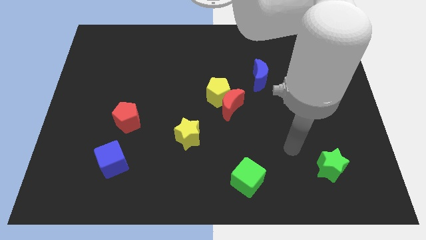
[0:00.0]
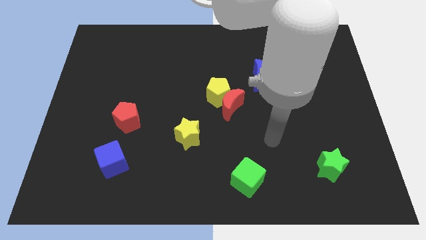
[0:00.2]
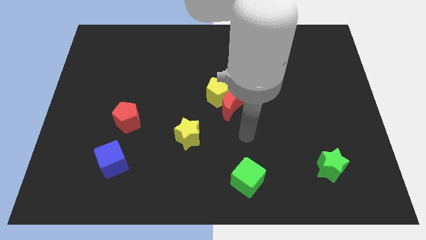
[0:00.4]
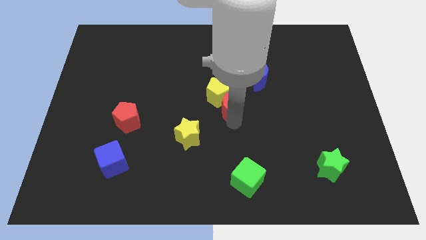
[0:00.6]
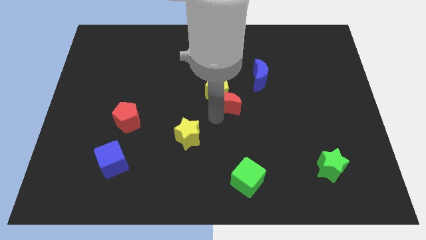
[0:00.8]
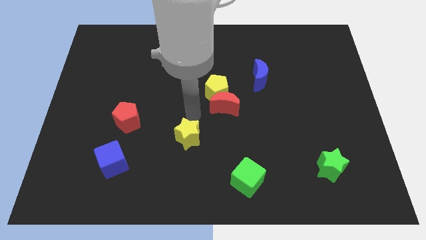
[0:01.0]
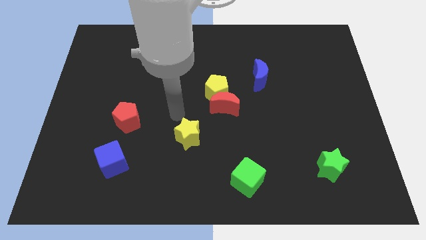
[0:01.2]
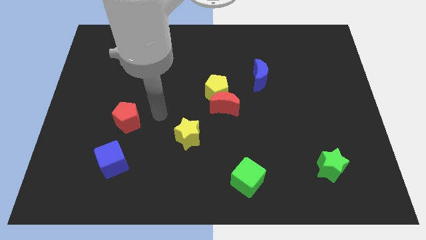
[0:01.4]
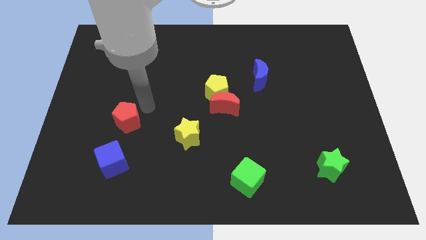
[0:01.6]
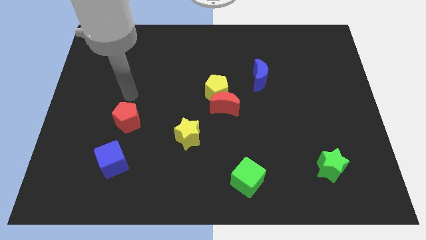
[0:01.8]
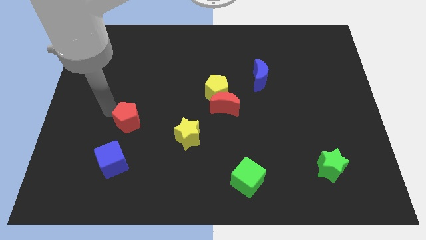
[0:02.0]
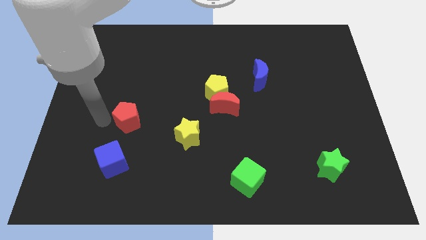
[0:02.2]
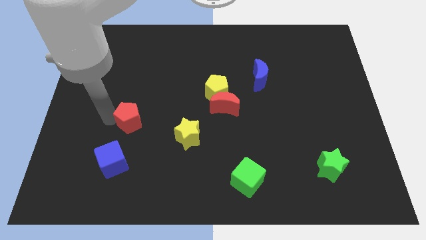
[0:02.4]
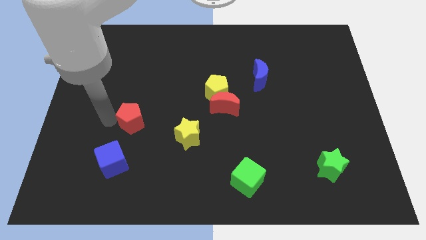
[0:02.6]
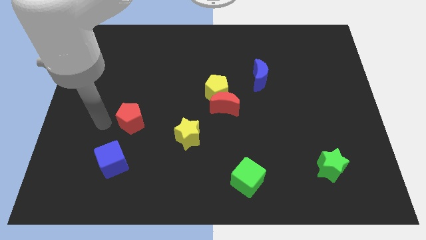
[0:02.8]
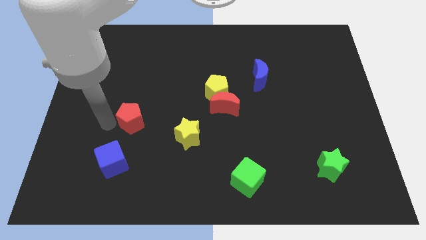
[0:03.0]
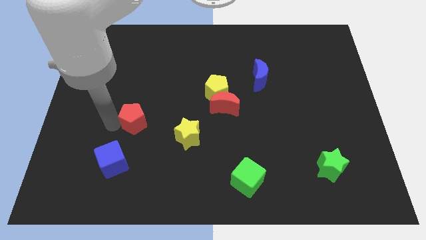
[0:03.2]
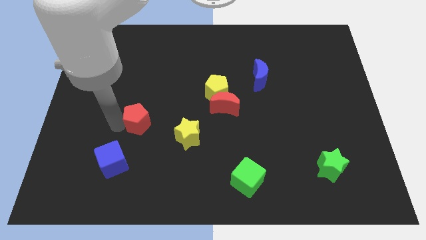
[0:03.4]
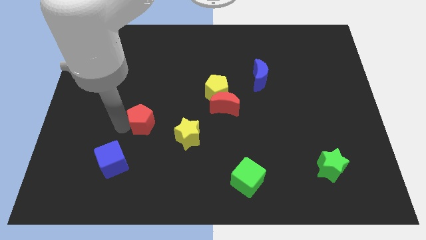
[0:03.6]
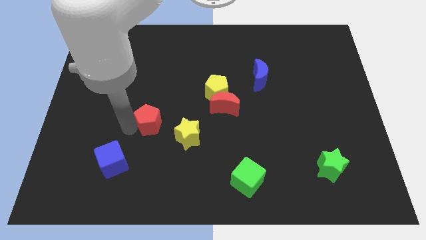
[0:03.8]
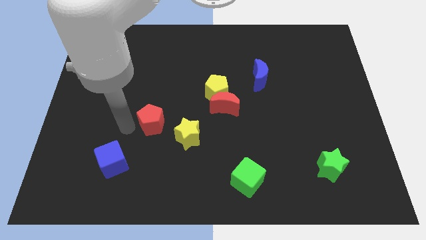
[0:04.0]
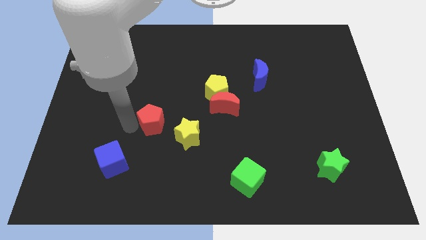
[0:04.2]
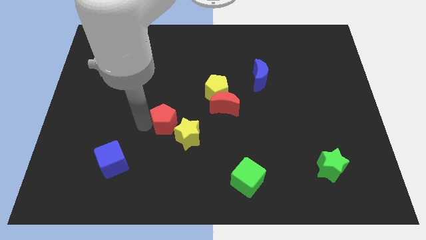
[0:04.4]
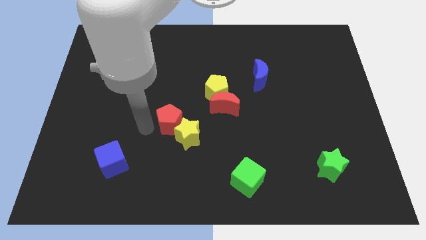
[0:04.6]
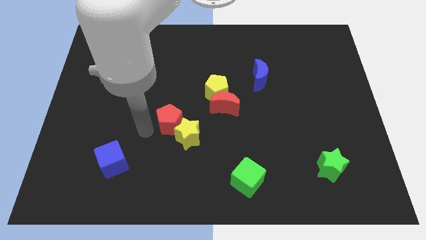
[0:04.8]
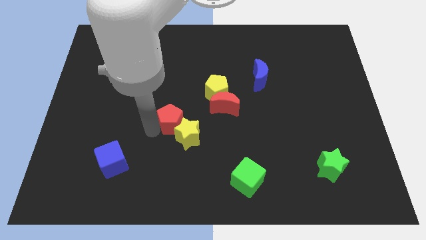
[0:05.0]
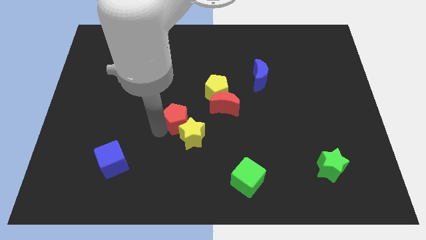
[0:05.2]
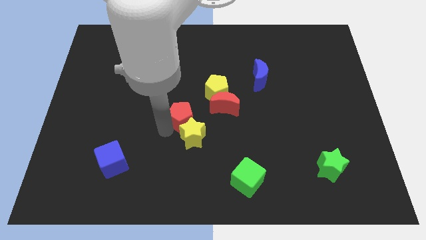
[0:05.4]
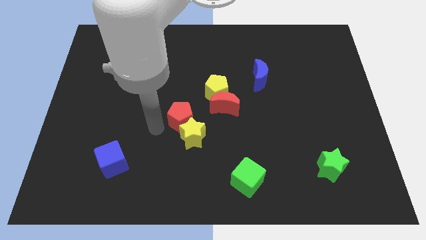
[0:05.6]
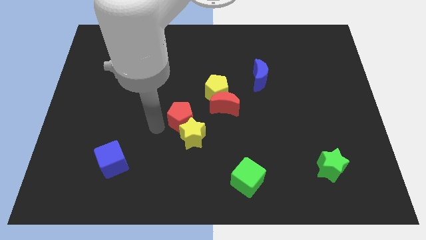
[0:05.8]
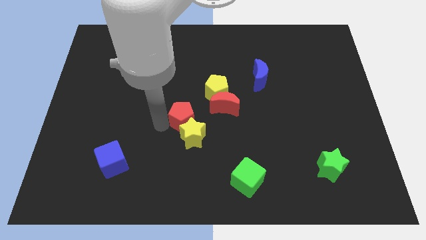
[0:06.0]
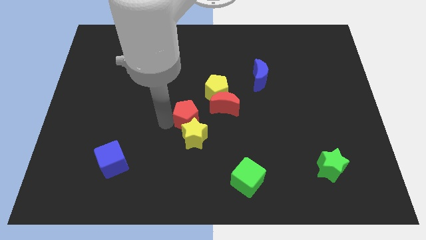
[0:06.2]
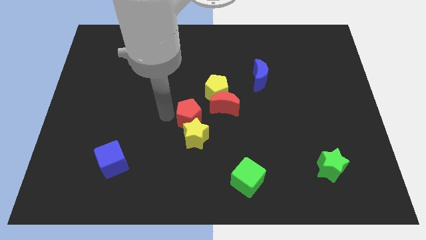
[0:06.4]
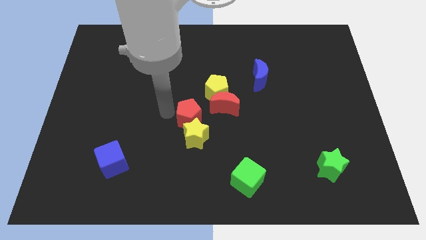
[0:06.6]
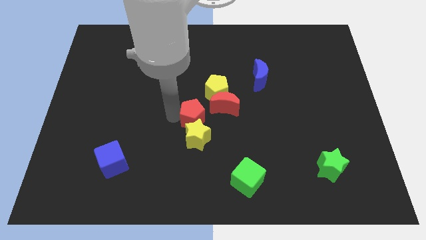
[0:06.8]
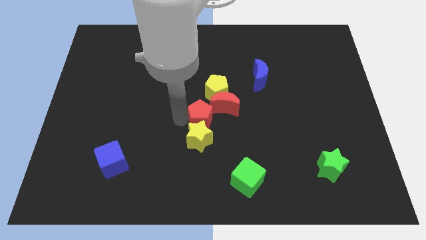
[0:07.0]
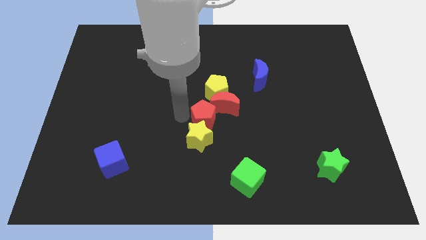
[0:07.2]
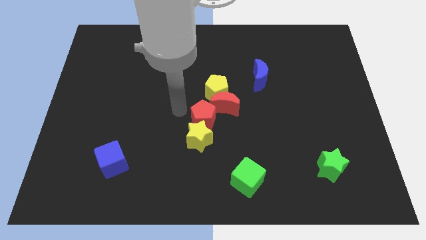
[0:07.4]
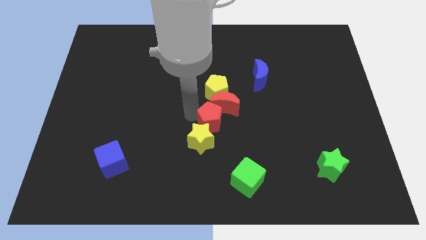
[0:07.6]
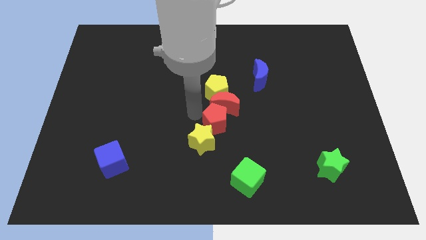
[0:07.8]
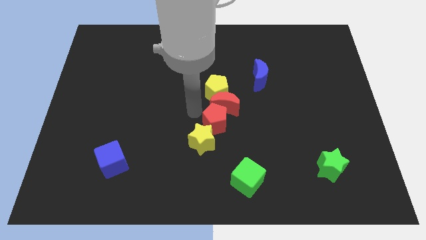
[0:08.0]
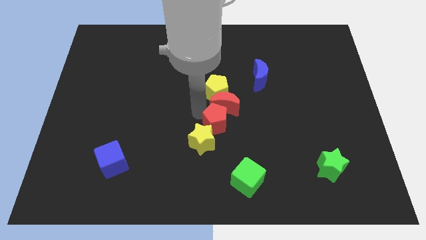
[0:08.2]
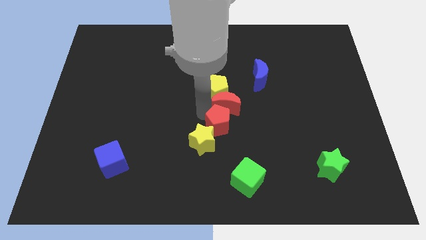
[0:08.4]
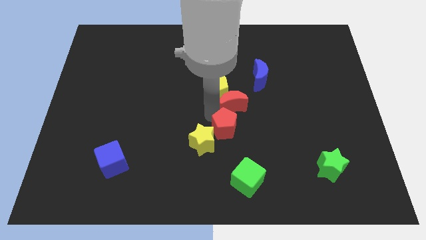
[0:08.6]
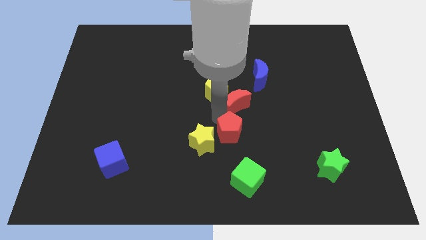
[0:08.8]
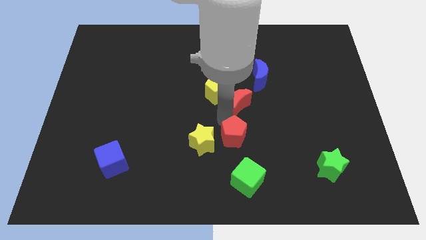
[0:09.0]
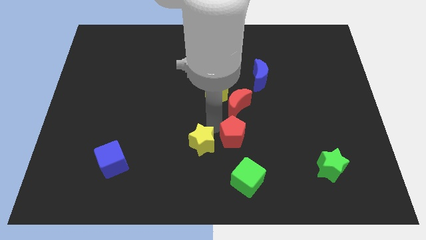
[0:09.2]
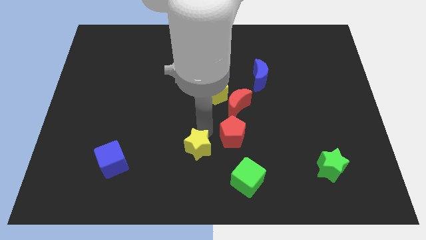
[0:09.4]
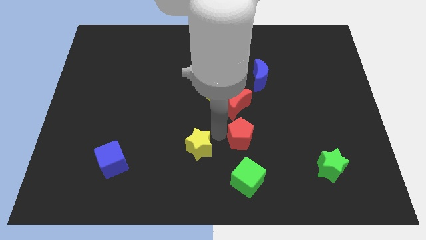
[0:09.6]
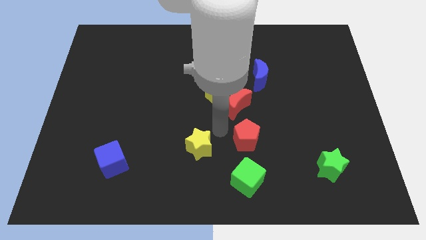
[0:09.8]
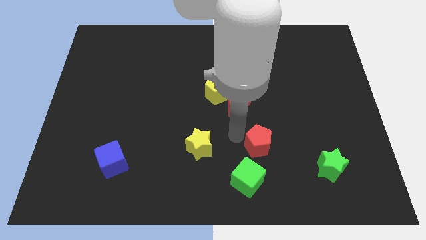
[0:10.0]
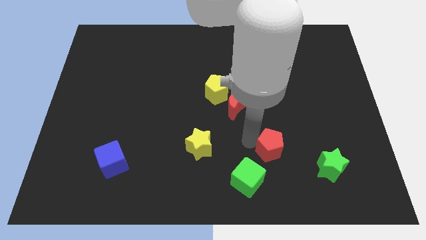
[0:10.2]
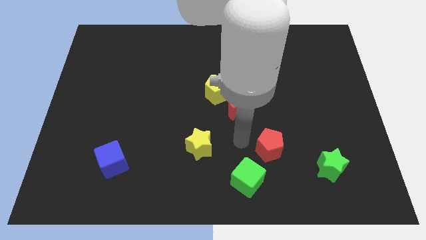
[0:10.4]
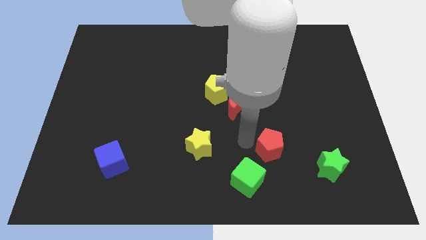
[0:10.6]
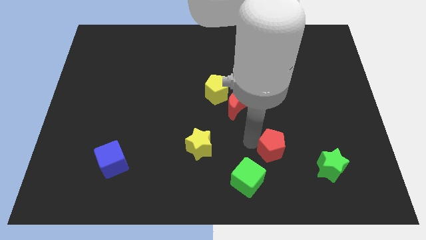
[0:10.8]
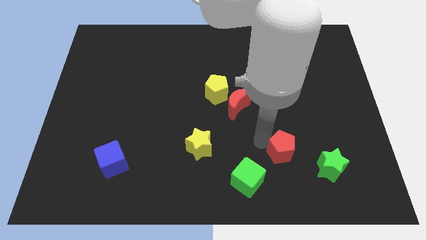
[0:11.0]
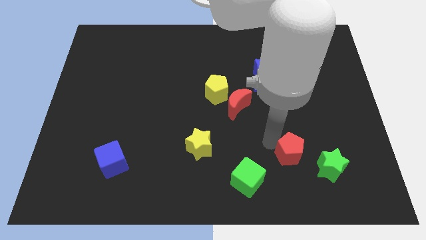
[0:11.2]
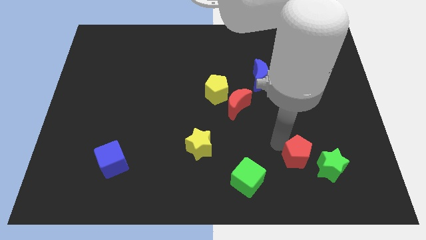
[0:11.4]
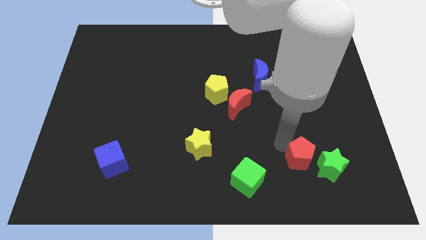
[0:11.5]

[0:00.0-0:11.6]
push the red pentagon towards the green star

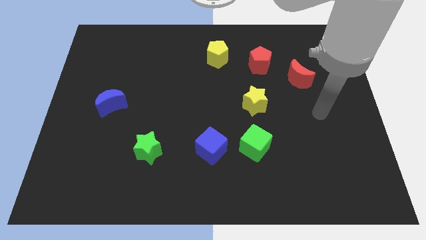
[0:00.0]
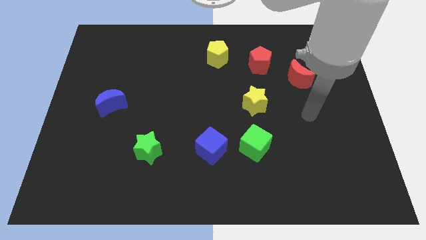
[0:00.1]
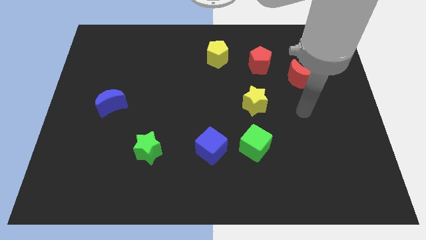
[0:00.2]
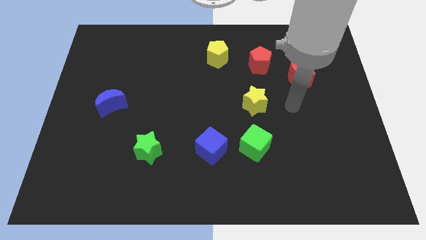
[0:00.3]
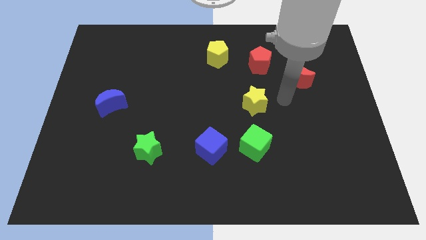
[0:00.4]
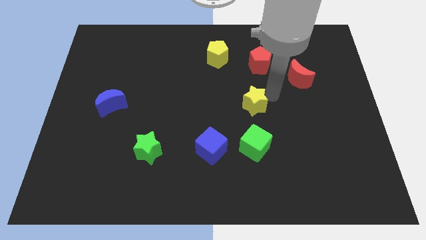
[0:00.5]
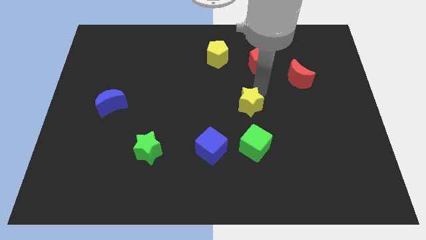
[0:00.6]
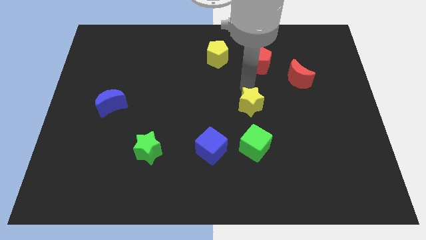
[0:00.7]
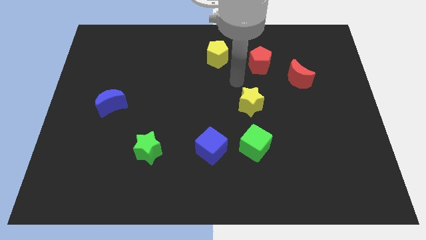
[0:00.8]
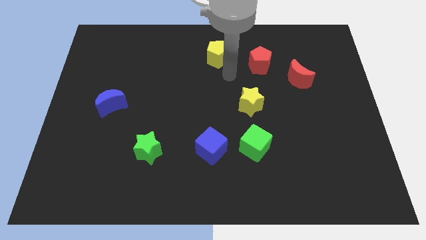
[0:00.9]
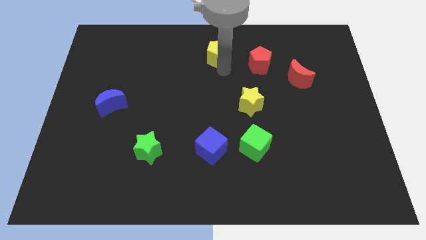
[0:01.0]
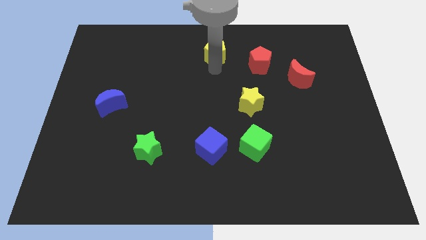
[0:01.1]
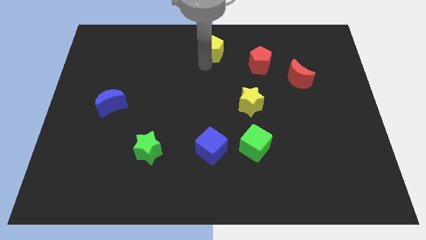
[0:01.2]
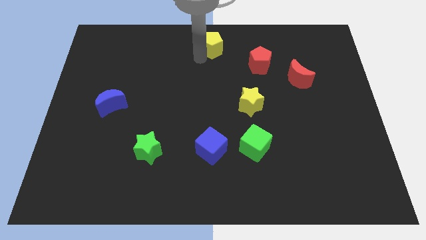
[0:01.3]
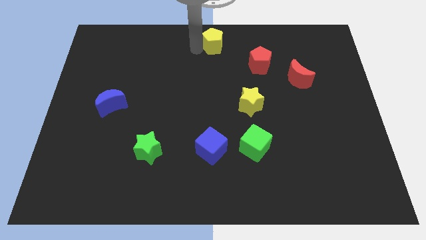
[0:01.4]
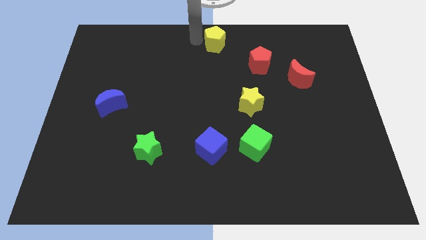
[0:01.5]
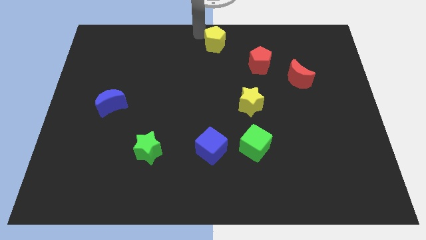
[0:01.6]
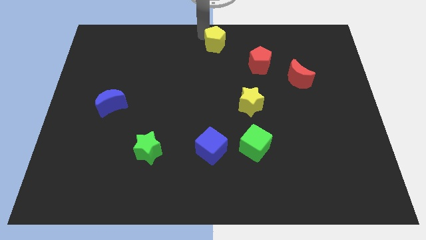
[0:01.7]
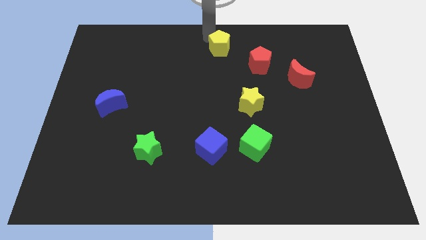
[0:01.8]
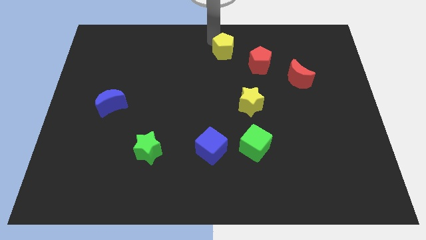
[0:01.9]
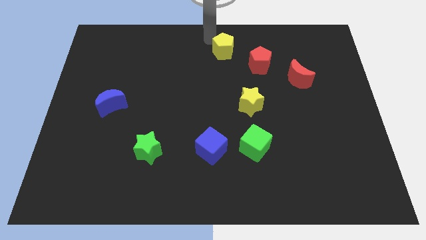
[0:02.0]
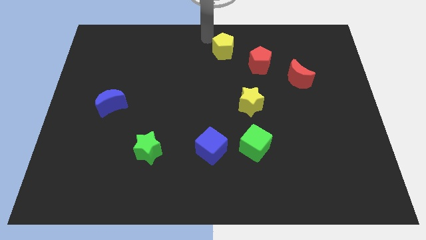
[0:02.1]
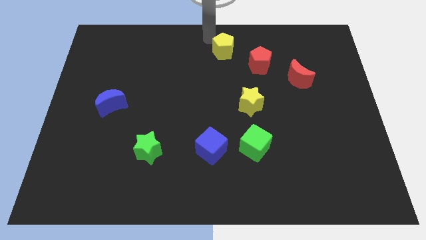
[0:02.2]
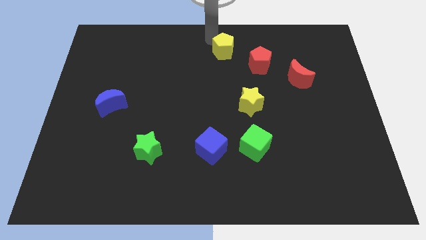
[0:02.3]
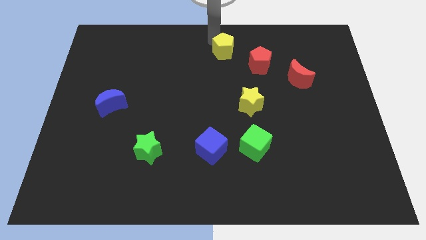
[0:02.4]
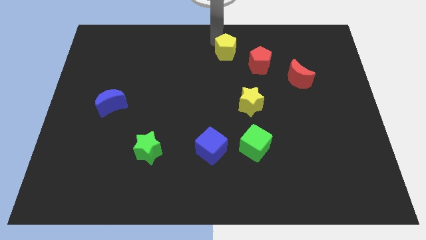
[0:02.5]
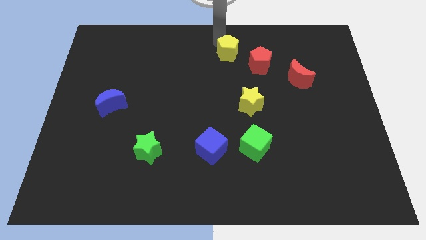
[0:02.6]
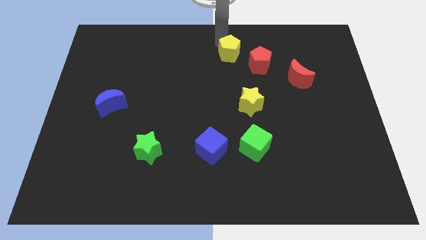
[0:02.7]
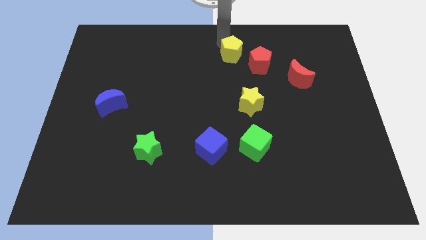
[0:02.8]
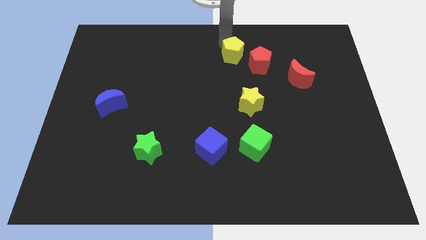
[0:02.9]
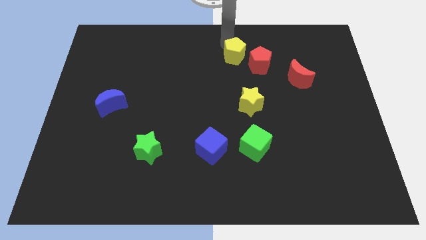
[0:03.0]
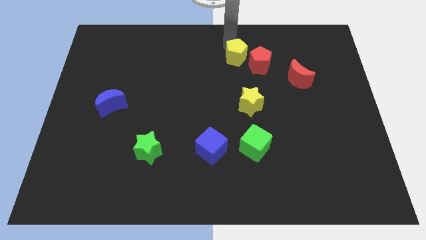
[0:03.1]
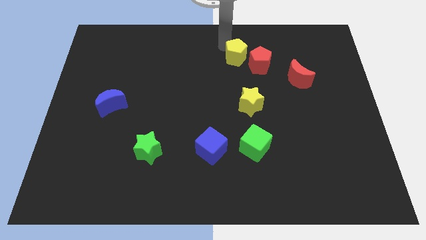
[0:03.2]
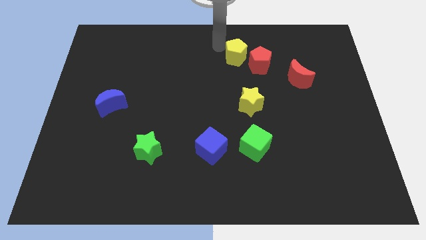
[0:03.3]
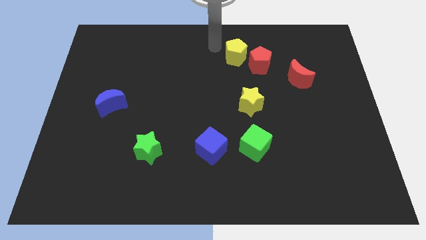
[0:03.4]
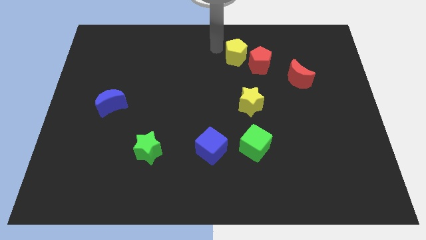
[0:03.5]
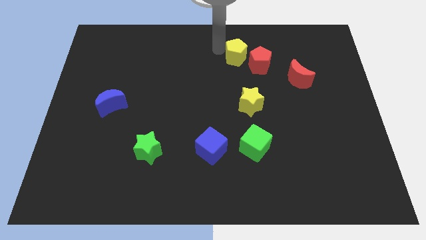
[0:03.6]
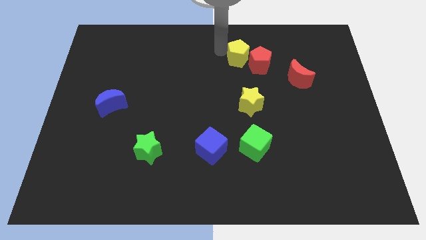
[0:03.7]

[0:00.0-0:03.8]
slide the yellow pentagon towards the red pentagon
